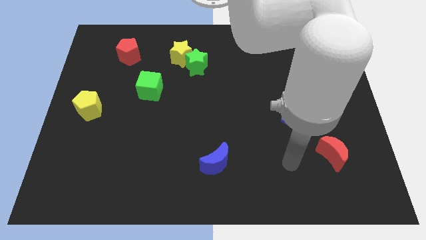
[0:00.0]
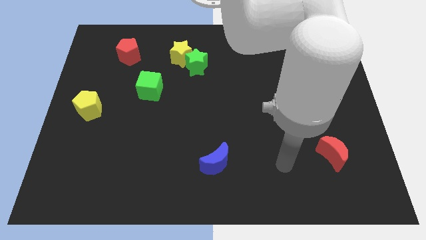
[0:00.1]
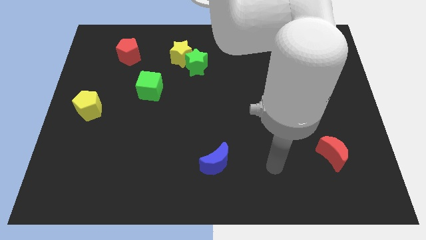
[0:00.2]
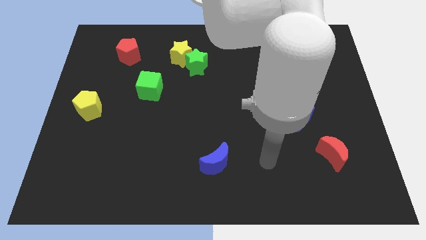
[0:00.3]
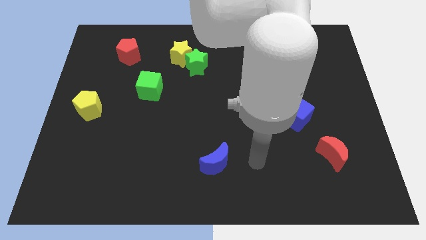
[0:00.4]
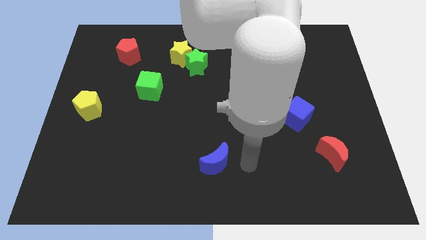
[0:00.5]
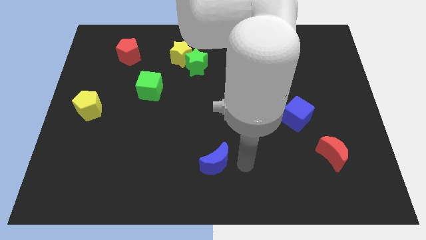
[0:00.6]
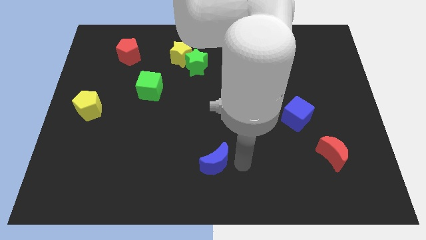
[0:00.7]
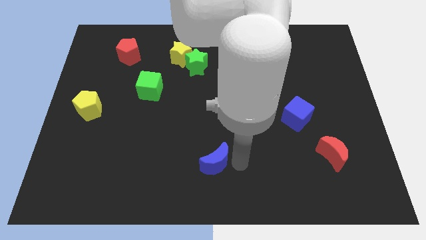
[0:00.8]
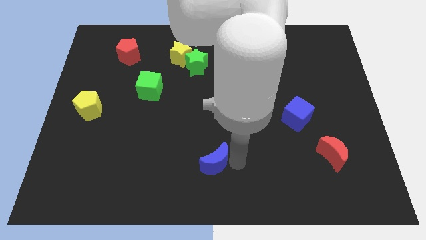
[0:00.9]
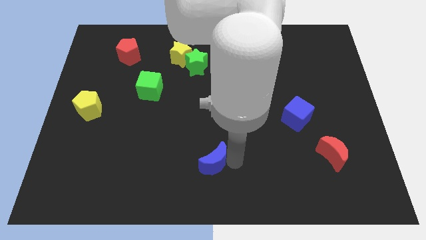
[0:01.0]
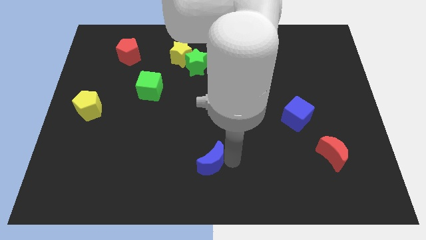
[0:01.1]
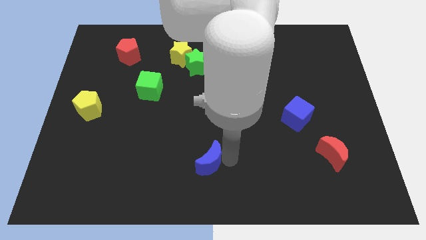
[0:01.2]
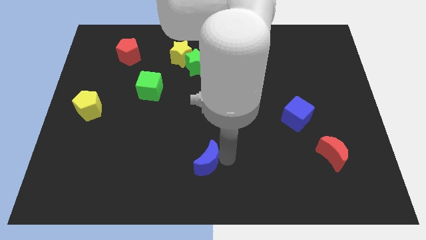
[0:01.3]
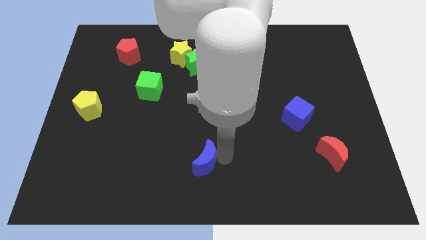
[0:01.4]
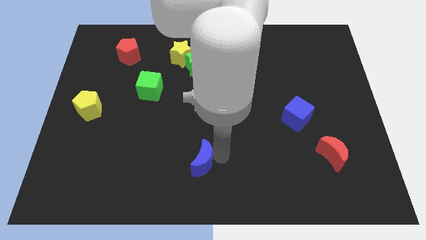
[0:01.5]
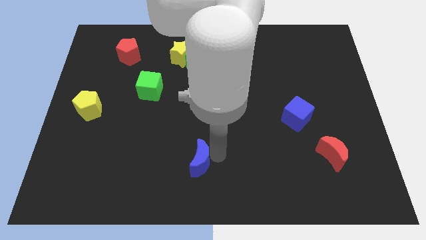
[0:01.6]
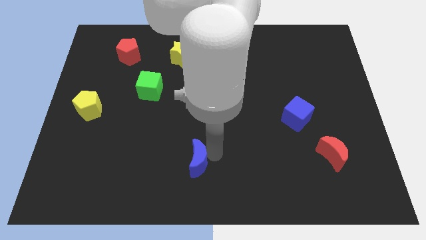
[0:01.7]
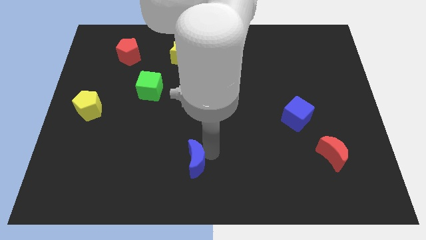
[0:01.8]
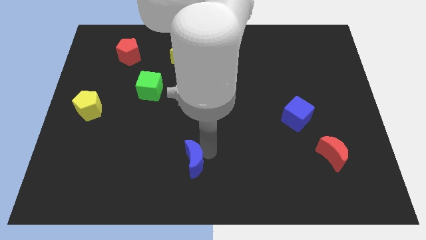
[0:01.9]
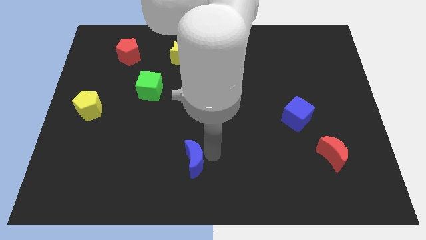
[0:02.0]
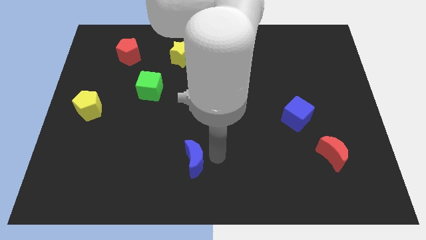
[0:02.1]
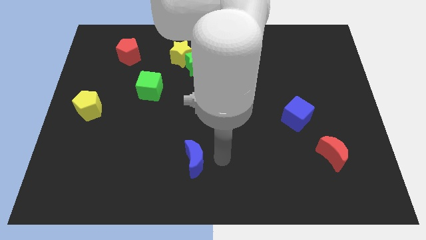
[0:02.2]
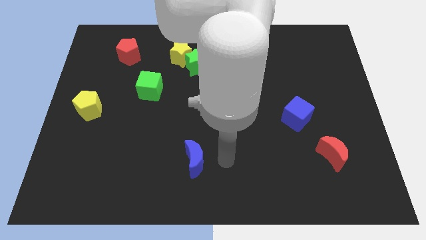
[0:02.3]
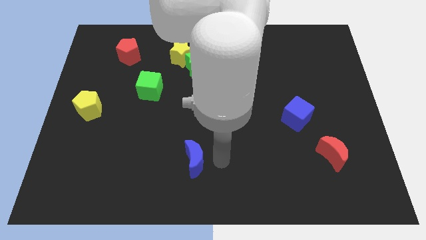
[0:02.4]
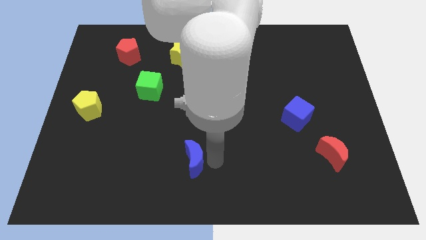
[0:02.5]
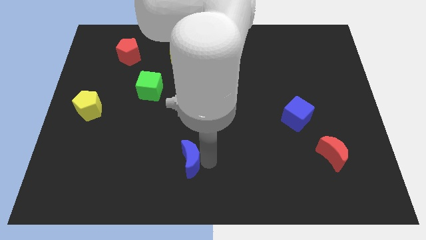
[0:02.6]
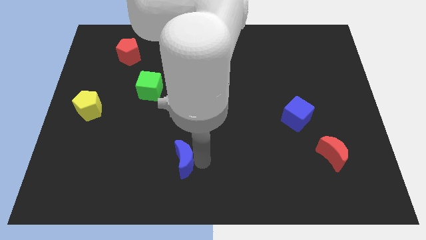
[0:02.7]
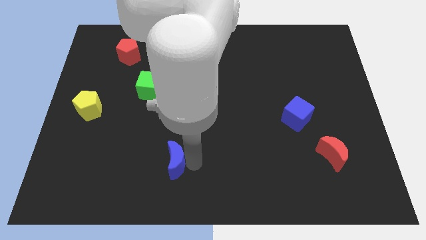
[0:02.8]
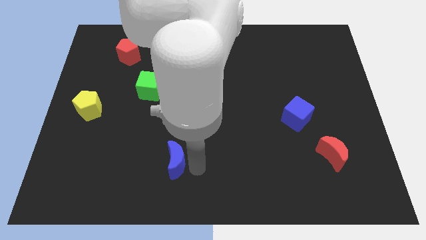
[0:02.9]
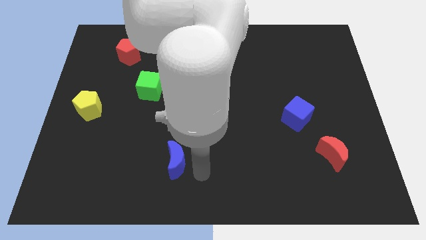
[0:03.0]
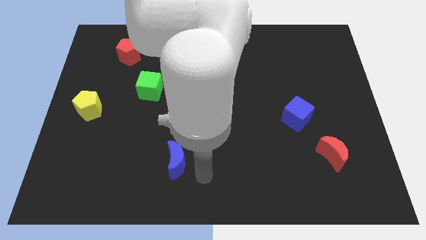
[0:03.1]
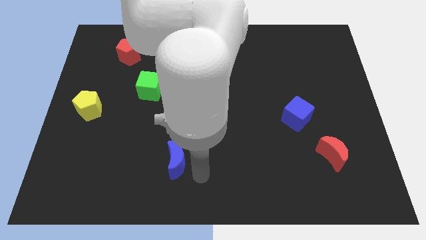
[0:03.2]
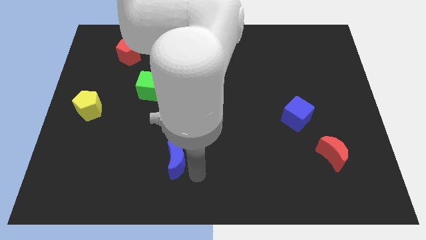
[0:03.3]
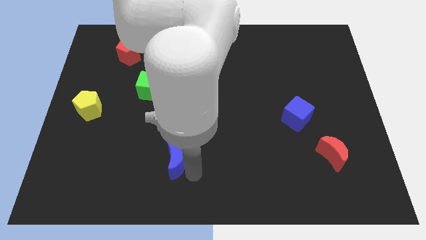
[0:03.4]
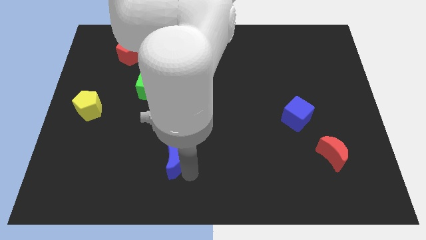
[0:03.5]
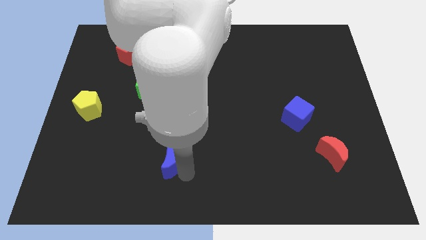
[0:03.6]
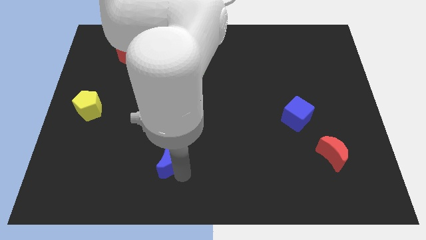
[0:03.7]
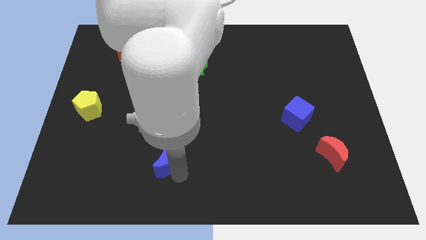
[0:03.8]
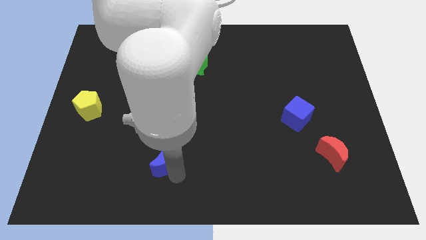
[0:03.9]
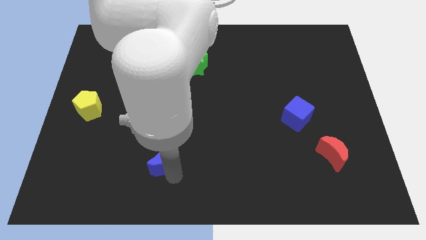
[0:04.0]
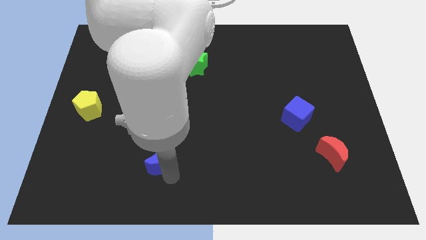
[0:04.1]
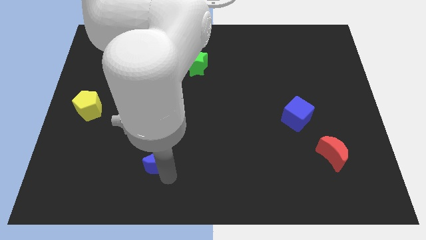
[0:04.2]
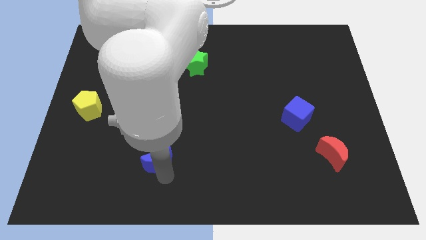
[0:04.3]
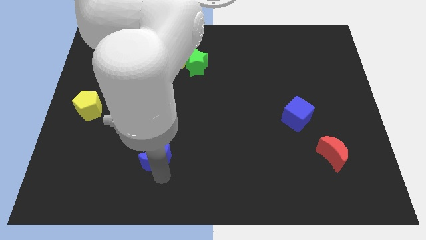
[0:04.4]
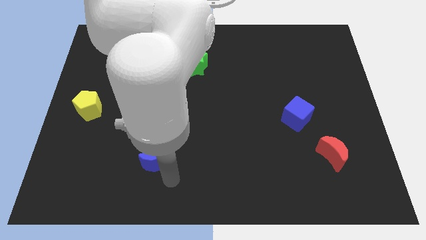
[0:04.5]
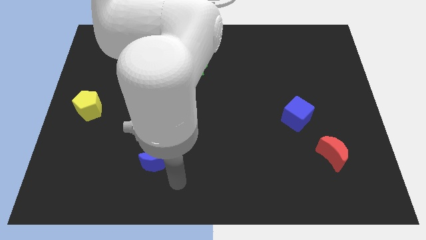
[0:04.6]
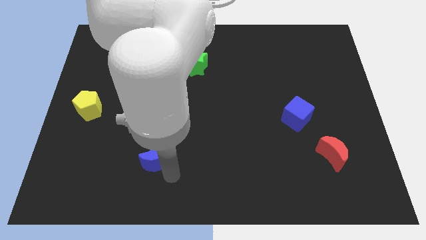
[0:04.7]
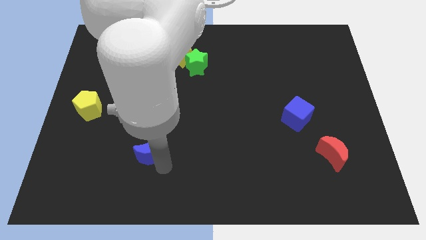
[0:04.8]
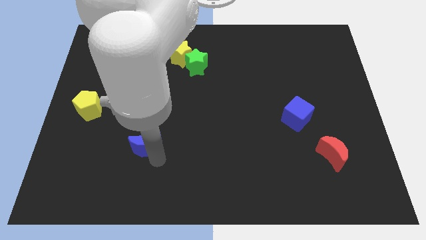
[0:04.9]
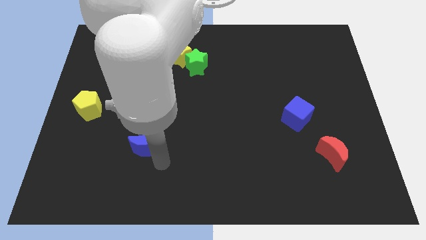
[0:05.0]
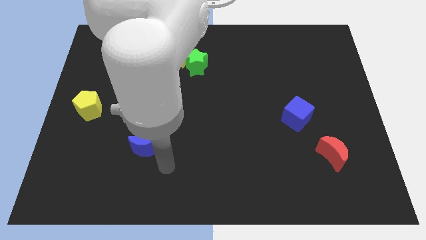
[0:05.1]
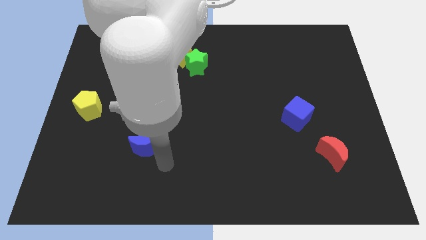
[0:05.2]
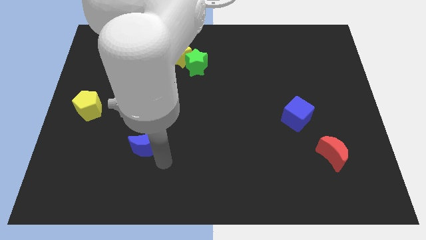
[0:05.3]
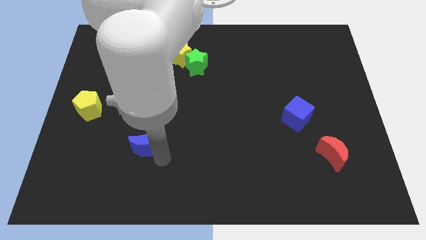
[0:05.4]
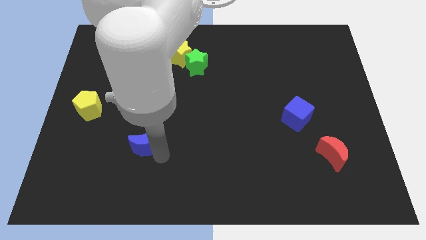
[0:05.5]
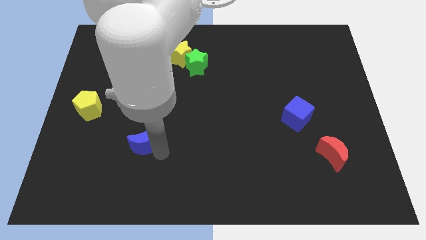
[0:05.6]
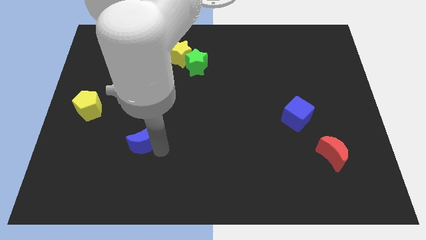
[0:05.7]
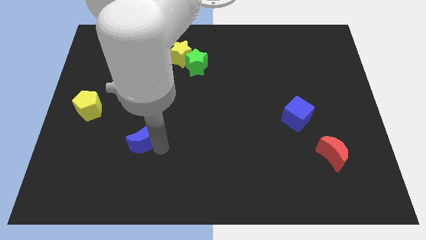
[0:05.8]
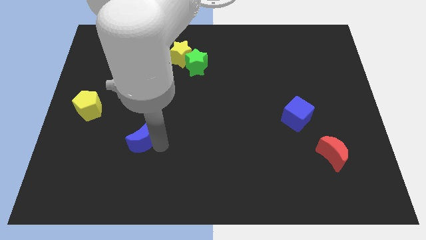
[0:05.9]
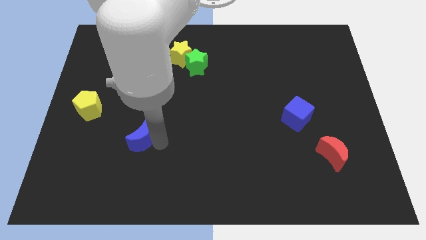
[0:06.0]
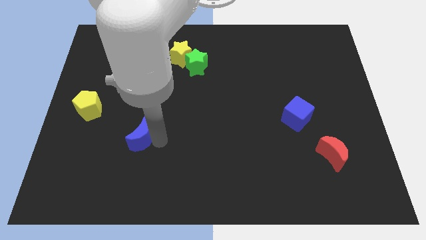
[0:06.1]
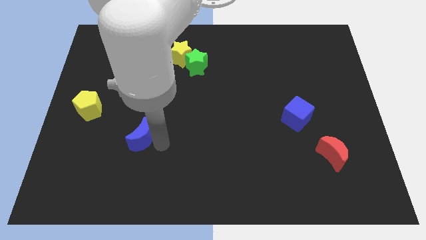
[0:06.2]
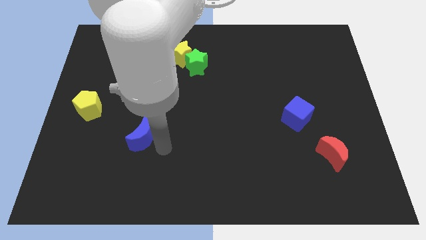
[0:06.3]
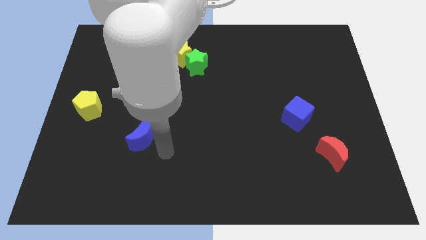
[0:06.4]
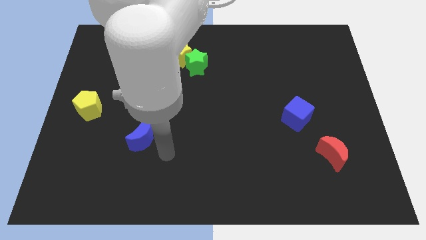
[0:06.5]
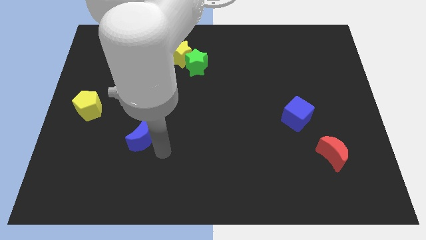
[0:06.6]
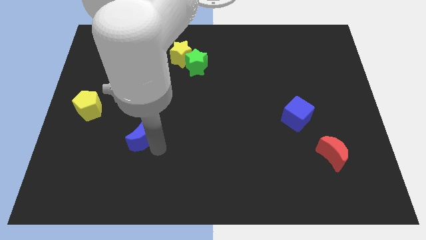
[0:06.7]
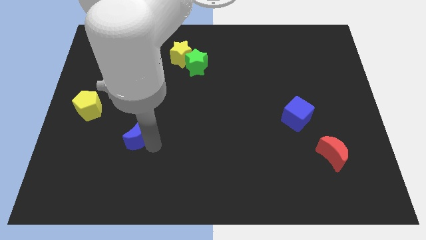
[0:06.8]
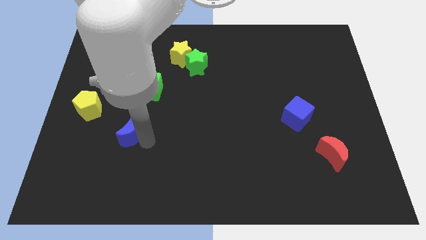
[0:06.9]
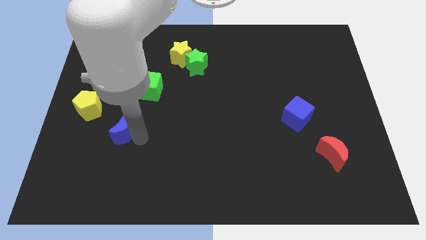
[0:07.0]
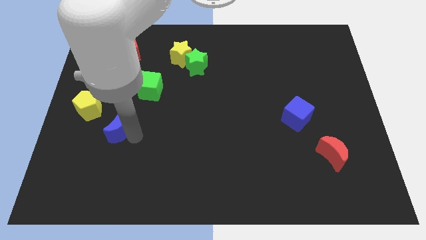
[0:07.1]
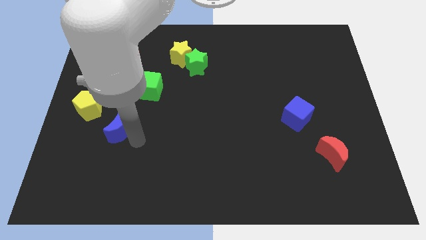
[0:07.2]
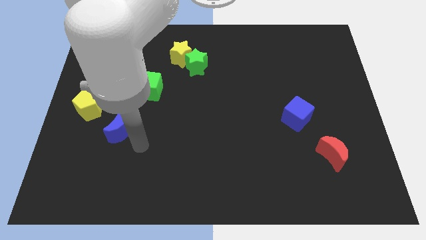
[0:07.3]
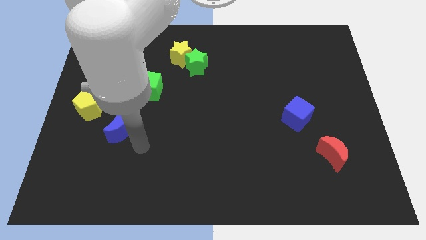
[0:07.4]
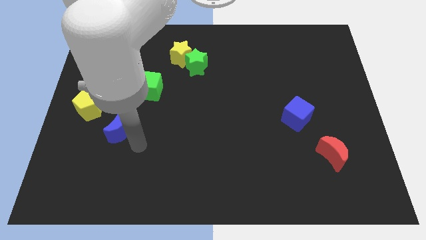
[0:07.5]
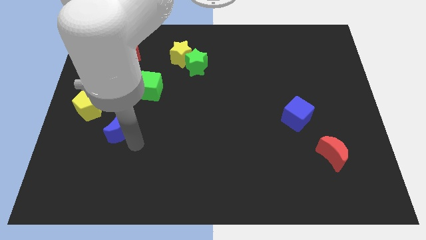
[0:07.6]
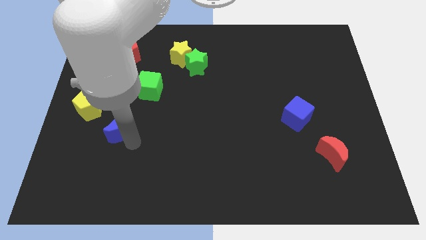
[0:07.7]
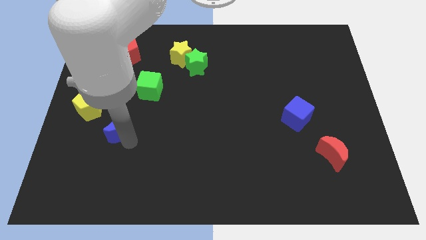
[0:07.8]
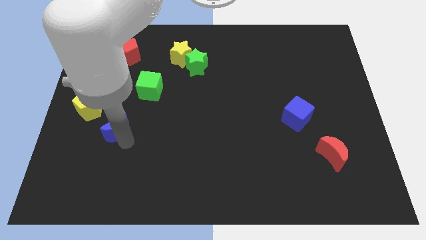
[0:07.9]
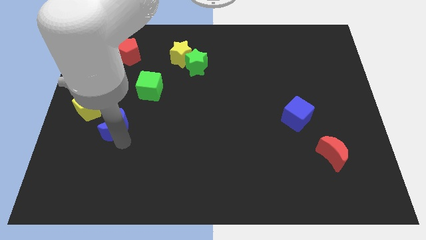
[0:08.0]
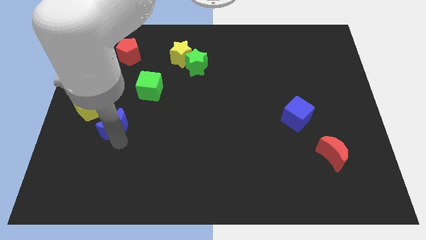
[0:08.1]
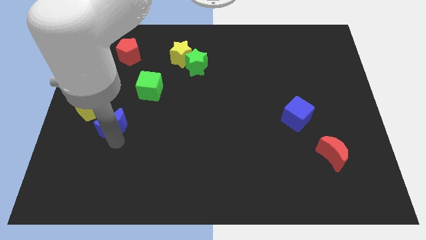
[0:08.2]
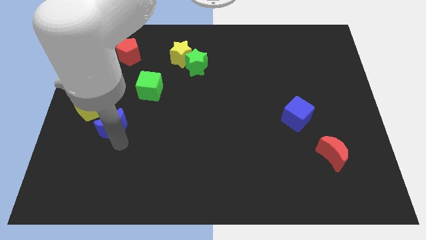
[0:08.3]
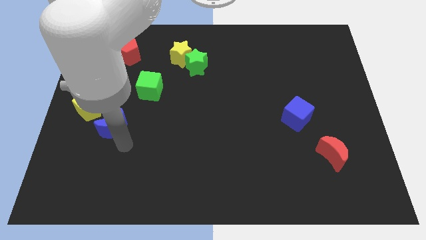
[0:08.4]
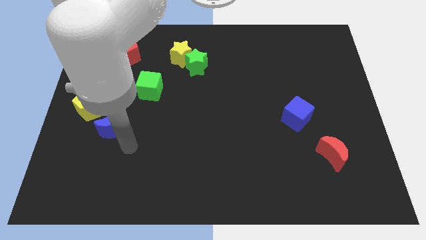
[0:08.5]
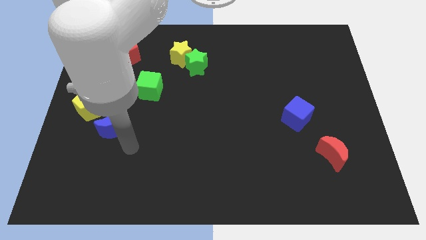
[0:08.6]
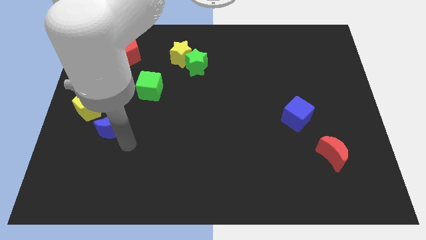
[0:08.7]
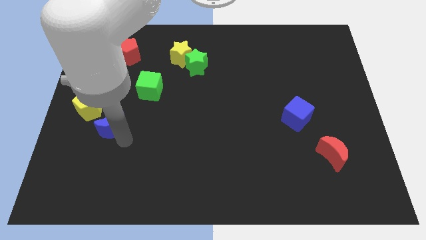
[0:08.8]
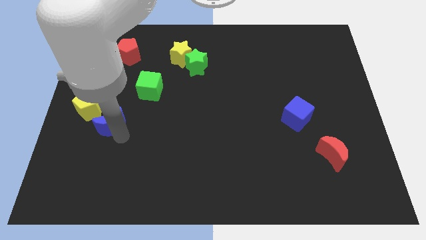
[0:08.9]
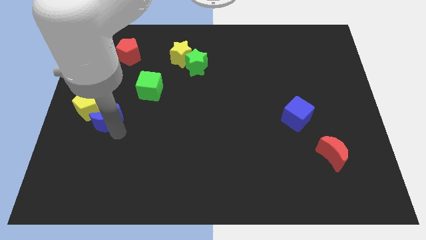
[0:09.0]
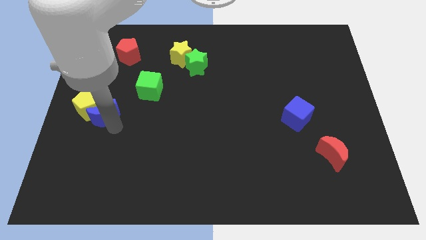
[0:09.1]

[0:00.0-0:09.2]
put the blue moon towards the yellow pentagon
